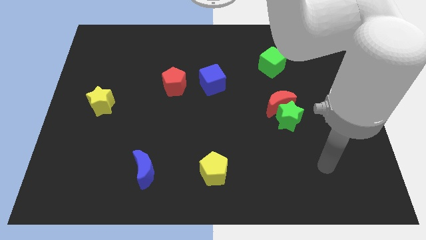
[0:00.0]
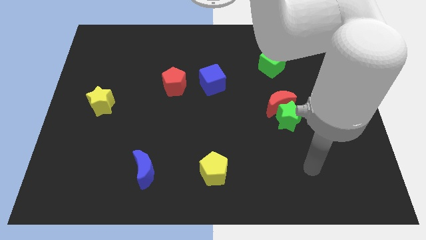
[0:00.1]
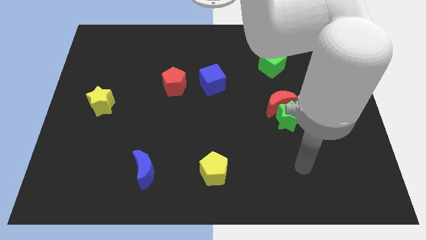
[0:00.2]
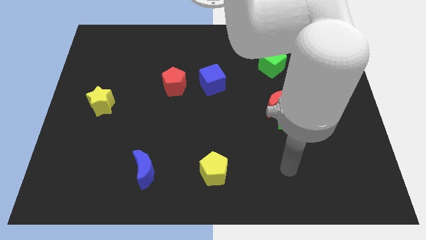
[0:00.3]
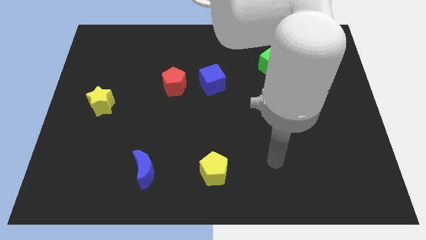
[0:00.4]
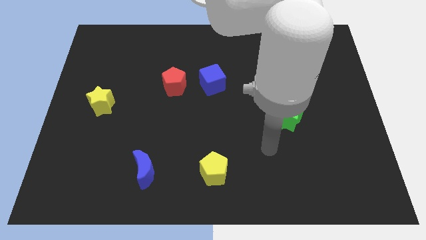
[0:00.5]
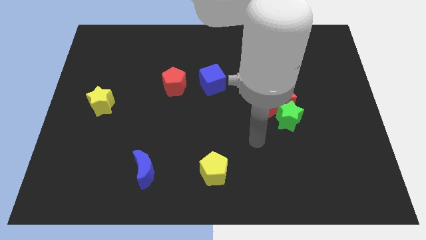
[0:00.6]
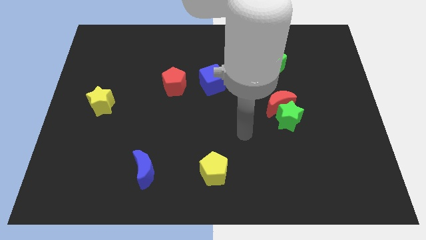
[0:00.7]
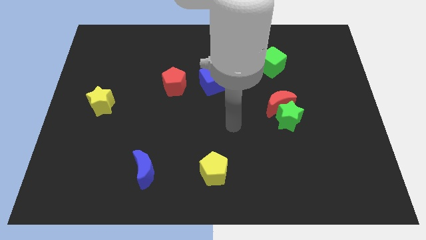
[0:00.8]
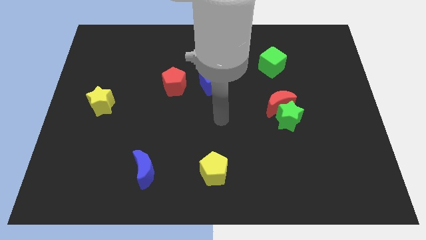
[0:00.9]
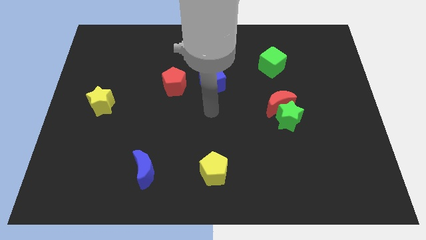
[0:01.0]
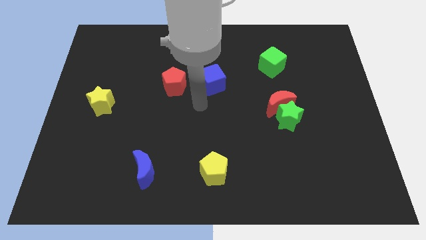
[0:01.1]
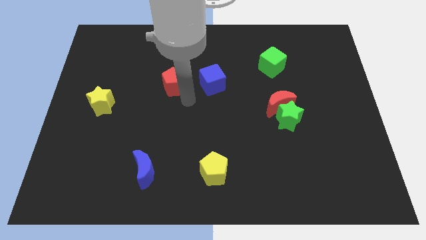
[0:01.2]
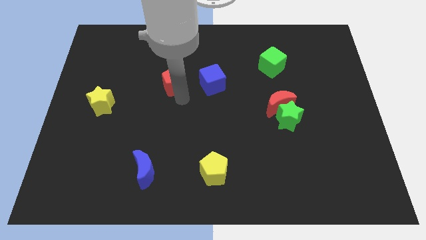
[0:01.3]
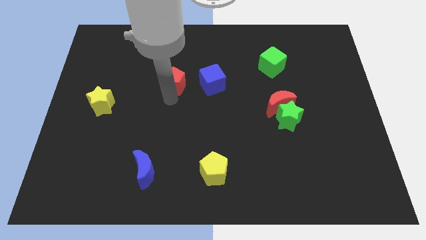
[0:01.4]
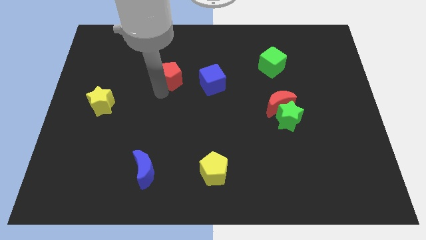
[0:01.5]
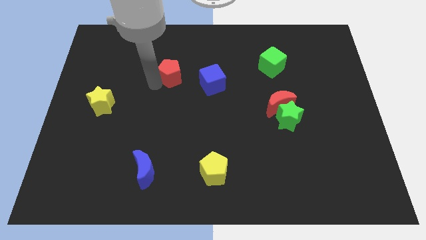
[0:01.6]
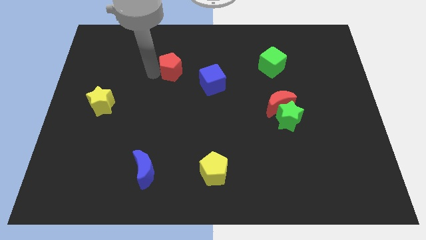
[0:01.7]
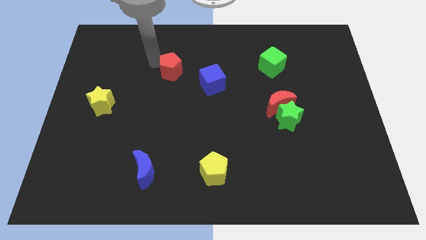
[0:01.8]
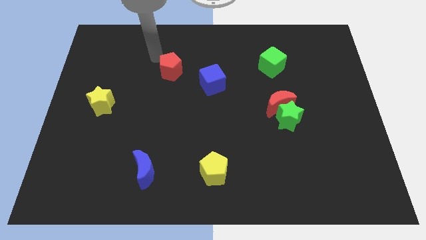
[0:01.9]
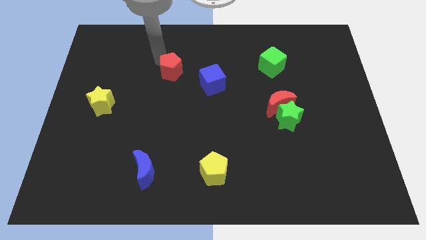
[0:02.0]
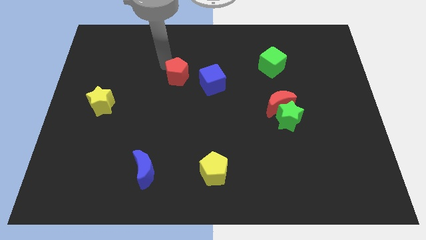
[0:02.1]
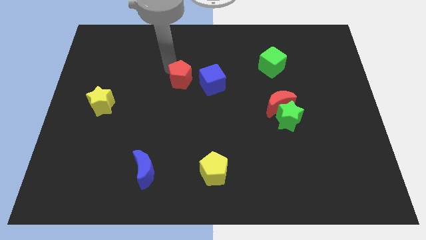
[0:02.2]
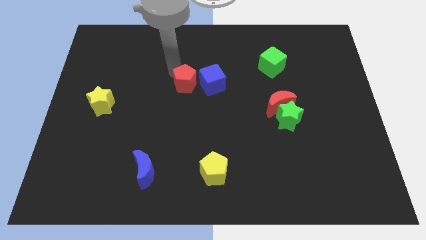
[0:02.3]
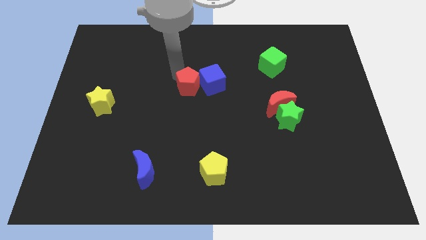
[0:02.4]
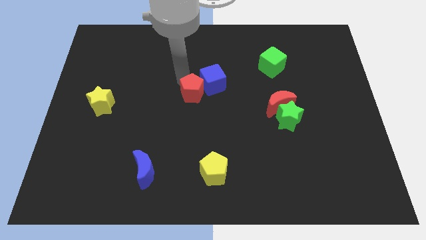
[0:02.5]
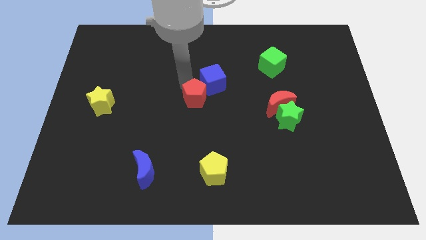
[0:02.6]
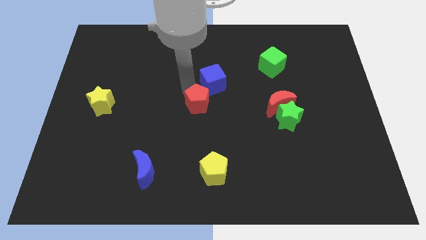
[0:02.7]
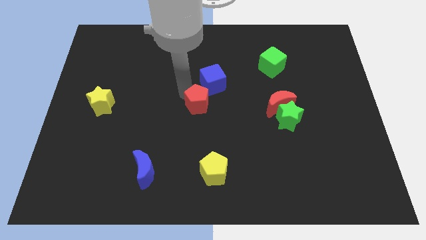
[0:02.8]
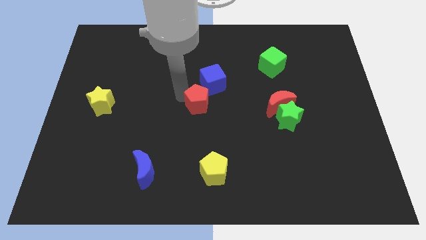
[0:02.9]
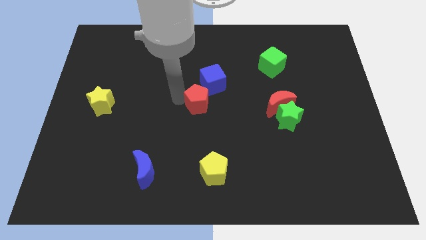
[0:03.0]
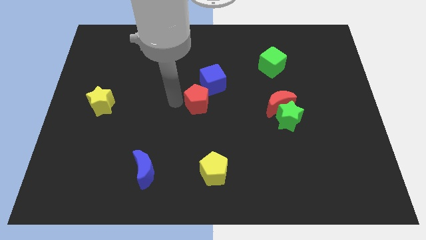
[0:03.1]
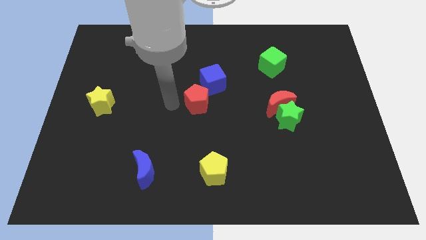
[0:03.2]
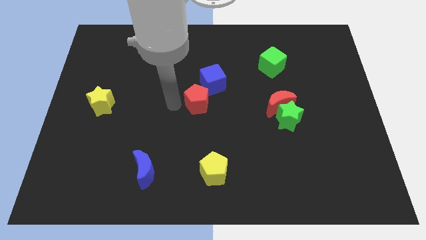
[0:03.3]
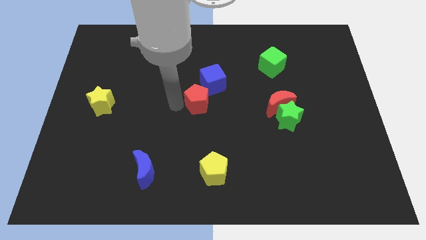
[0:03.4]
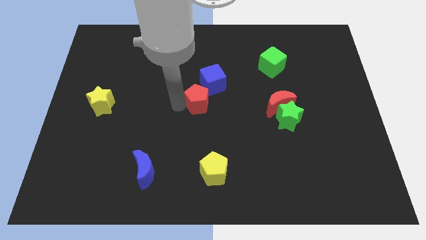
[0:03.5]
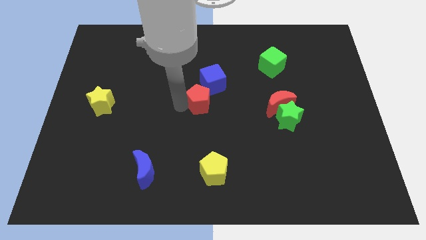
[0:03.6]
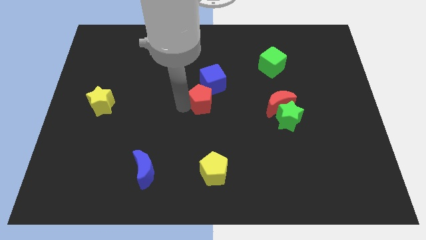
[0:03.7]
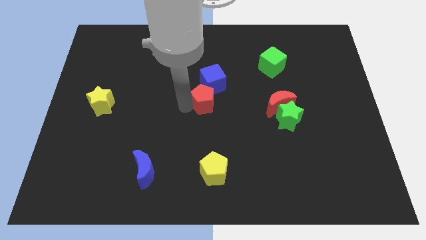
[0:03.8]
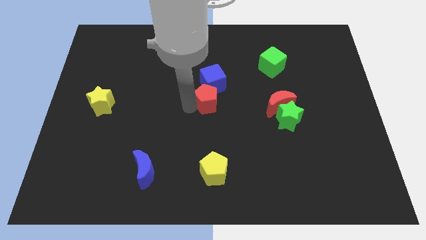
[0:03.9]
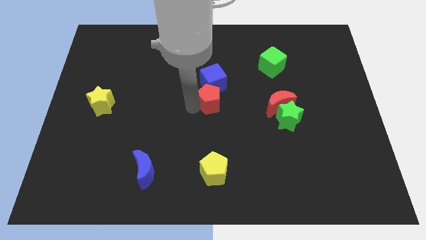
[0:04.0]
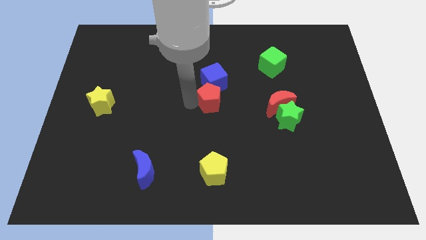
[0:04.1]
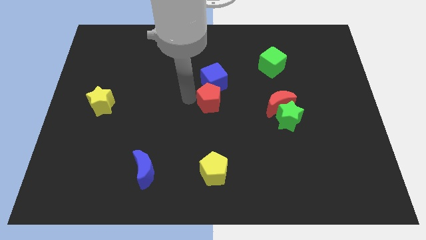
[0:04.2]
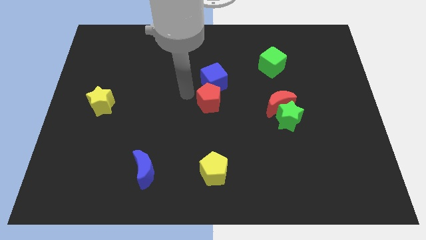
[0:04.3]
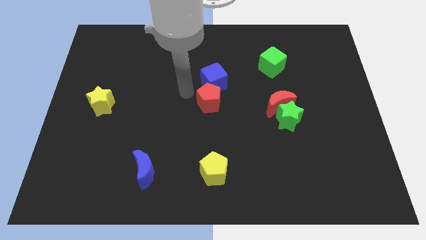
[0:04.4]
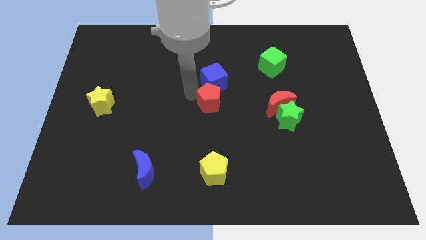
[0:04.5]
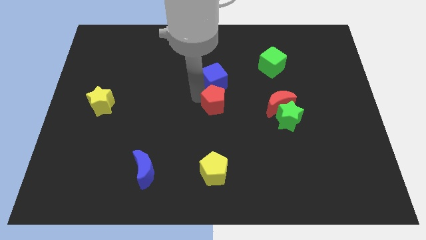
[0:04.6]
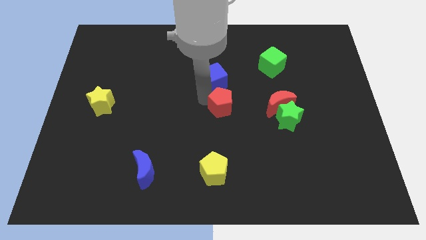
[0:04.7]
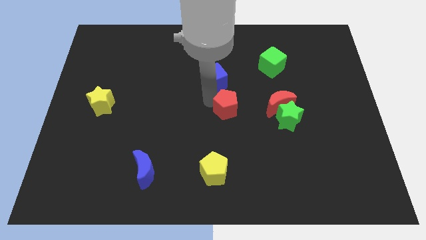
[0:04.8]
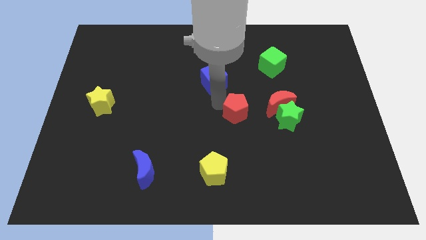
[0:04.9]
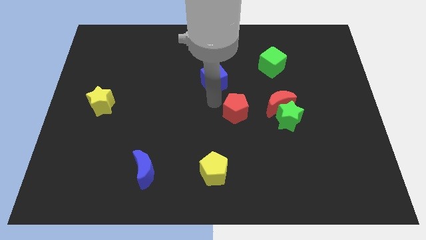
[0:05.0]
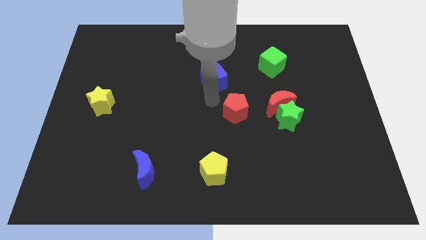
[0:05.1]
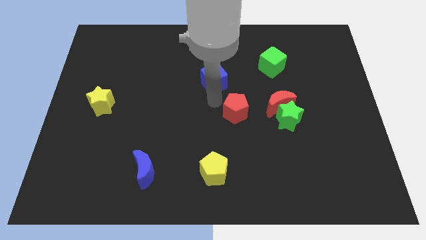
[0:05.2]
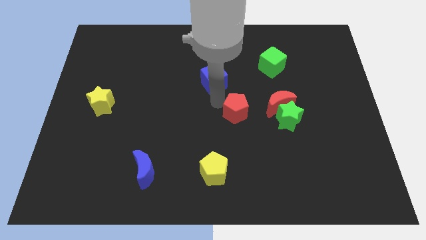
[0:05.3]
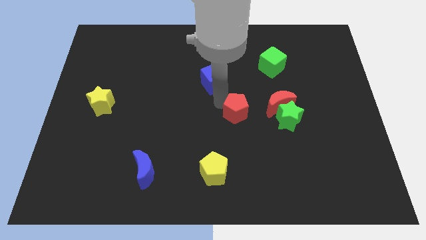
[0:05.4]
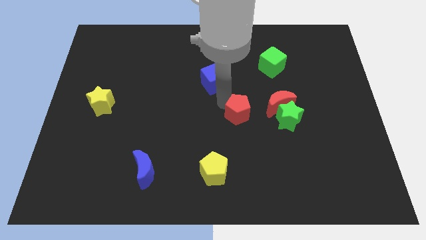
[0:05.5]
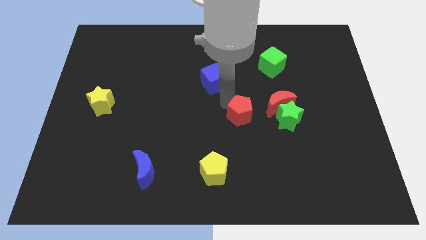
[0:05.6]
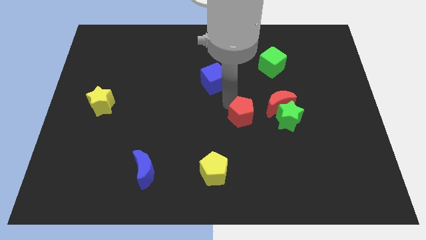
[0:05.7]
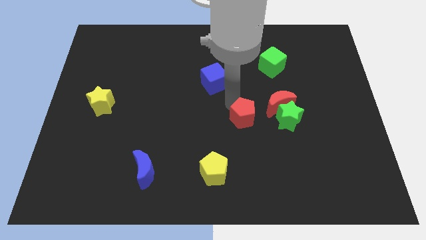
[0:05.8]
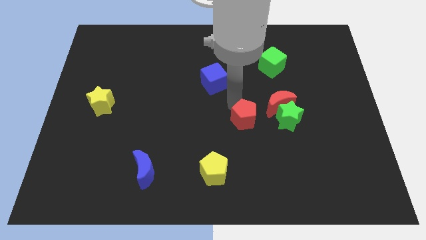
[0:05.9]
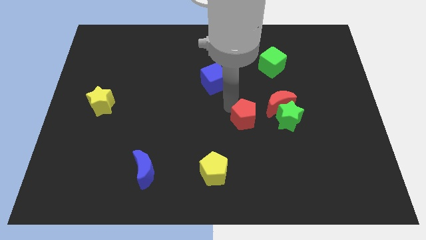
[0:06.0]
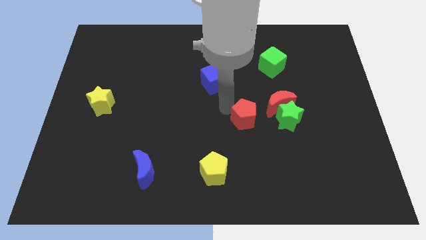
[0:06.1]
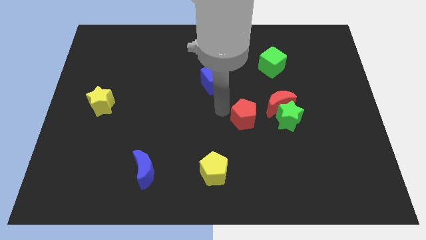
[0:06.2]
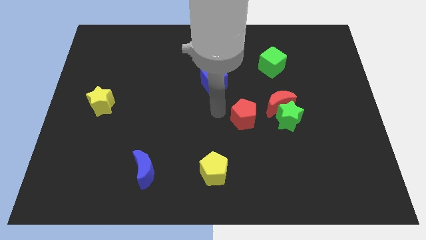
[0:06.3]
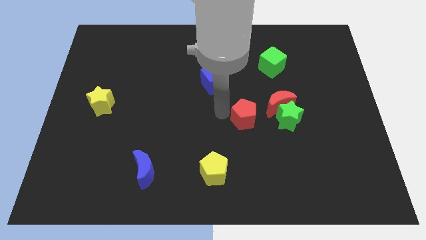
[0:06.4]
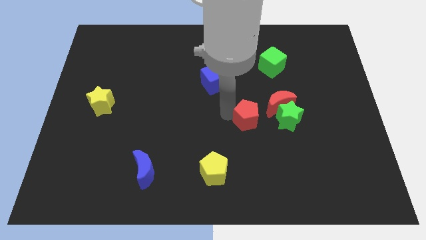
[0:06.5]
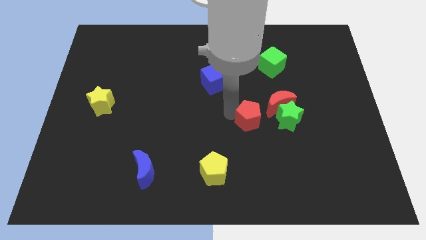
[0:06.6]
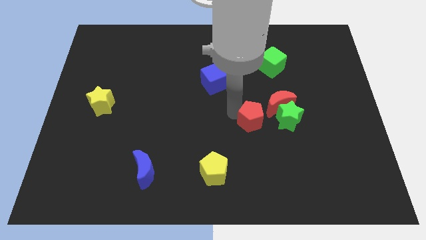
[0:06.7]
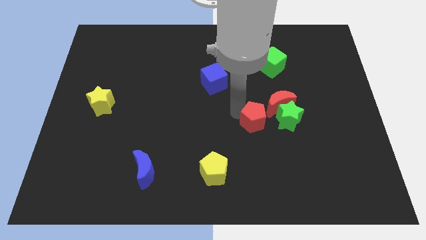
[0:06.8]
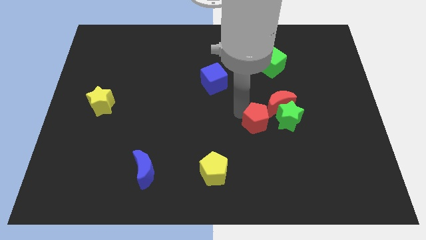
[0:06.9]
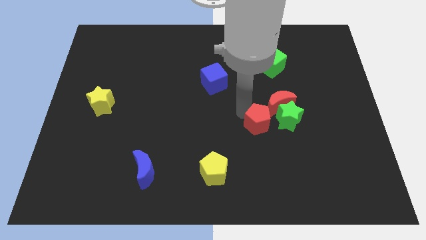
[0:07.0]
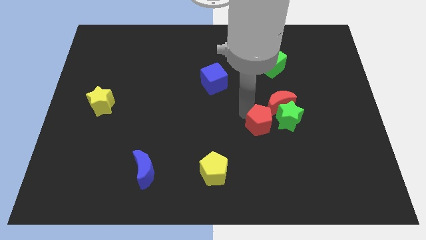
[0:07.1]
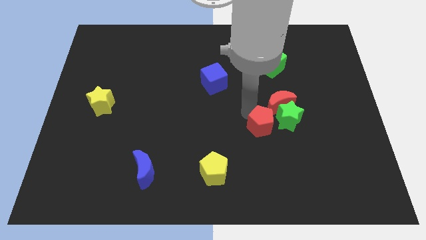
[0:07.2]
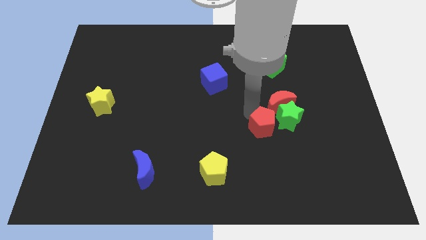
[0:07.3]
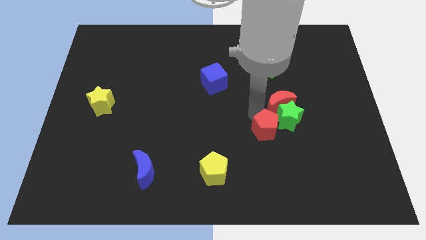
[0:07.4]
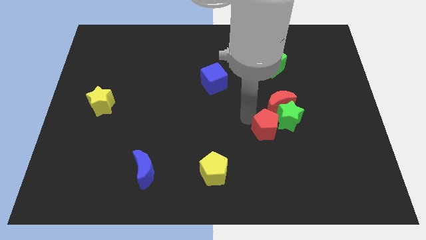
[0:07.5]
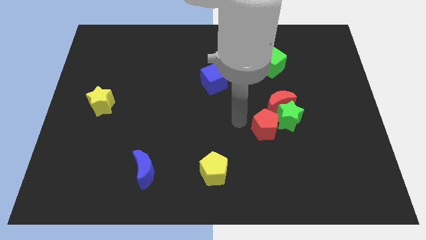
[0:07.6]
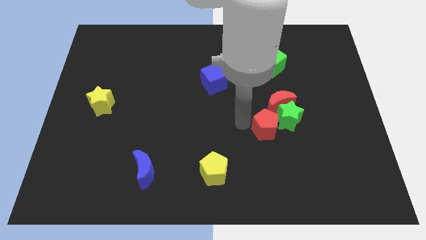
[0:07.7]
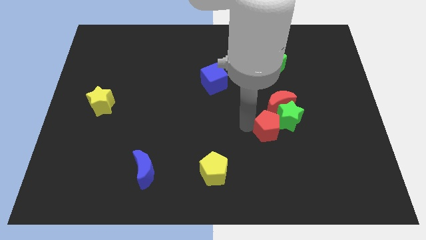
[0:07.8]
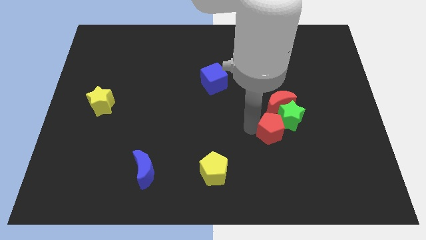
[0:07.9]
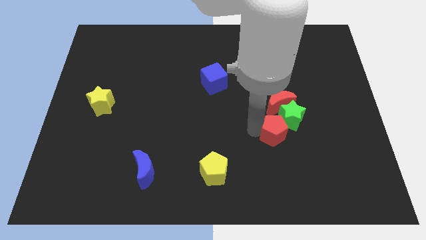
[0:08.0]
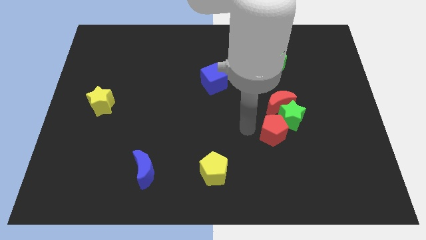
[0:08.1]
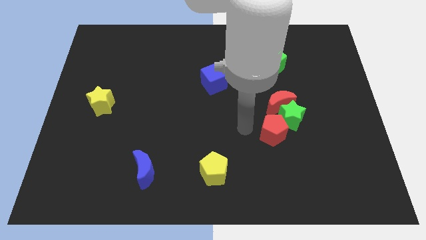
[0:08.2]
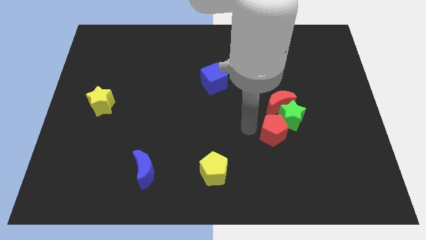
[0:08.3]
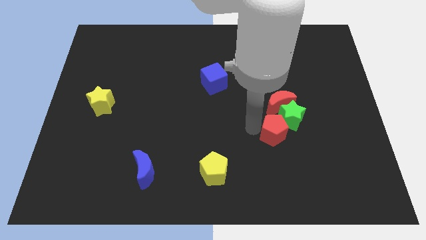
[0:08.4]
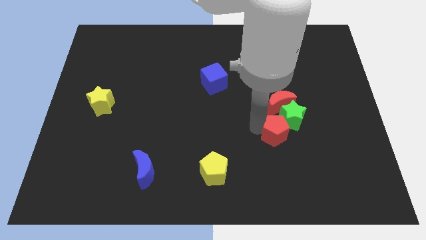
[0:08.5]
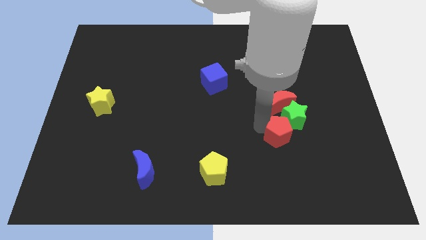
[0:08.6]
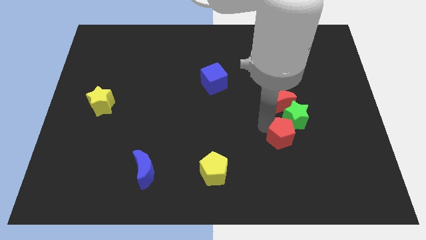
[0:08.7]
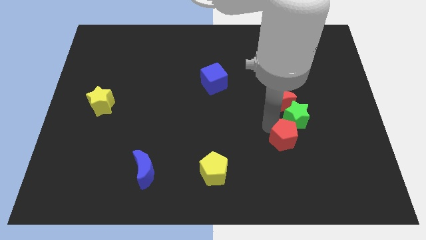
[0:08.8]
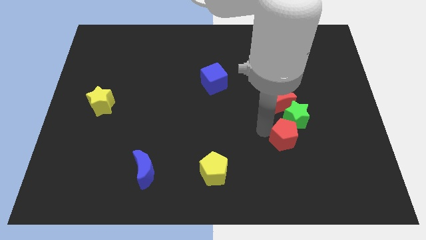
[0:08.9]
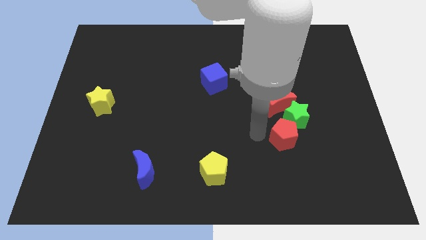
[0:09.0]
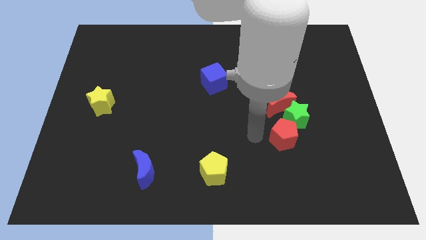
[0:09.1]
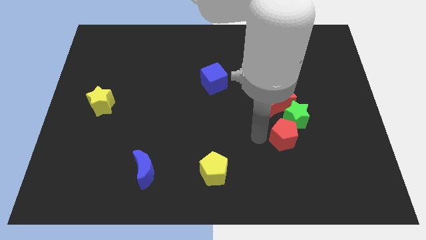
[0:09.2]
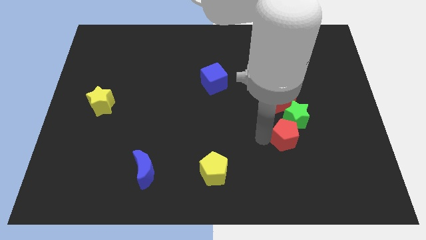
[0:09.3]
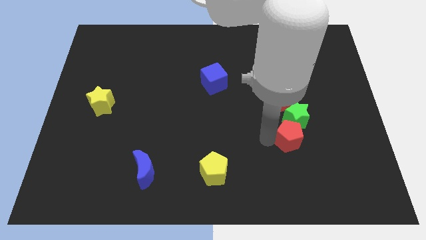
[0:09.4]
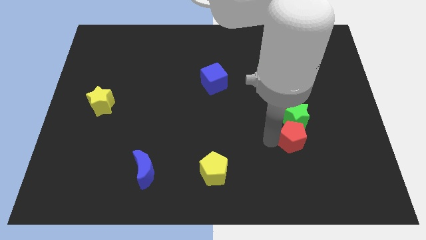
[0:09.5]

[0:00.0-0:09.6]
move the red pentagon to the bottom right of the green star
